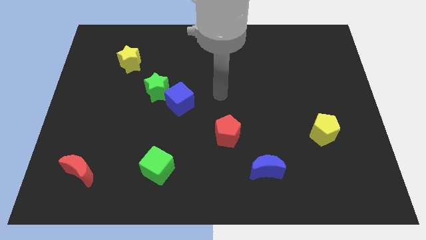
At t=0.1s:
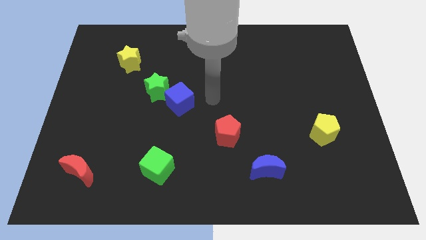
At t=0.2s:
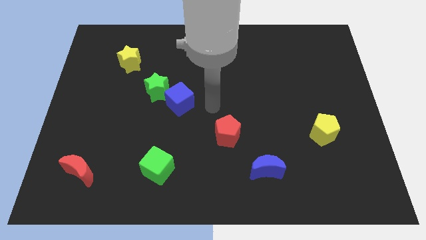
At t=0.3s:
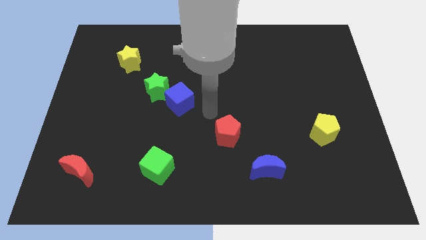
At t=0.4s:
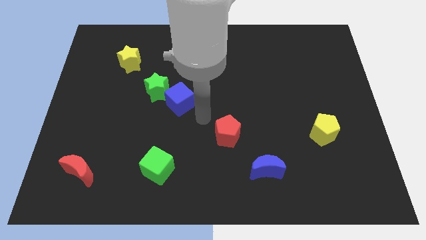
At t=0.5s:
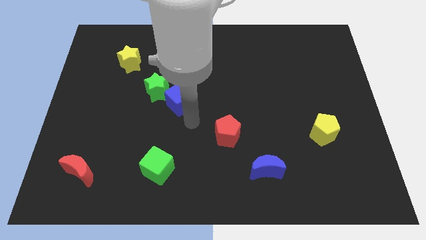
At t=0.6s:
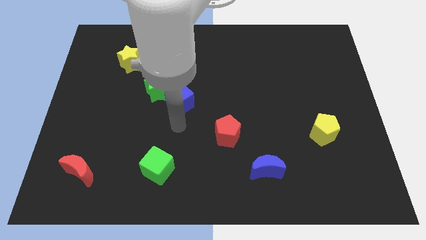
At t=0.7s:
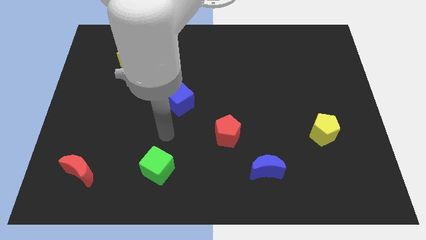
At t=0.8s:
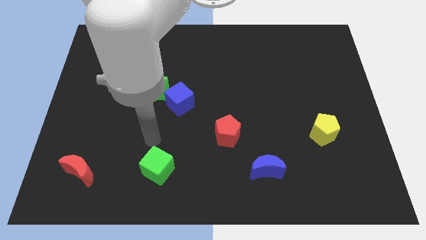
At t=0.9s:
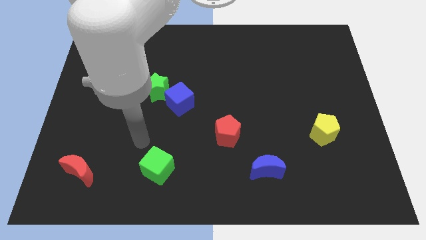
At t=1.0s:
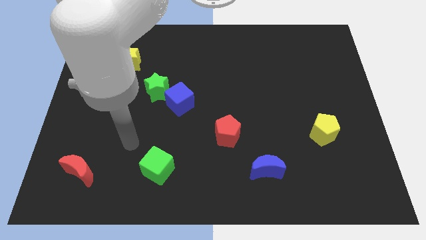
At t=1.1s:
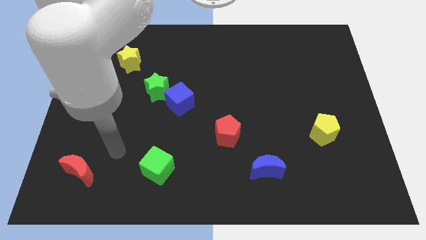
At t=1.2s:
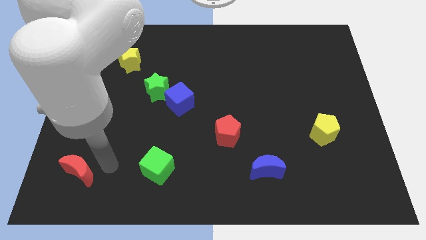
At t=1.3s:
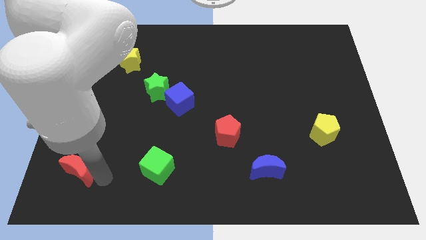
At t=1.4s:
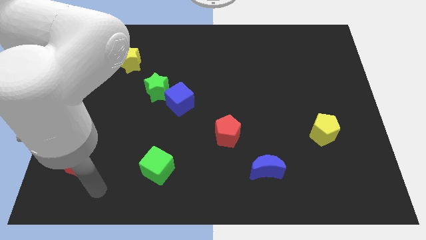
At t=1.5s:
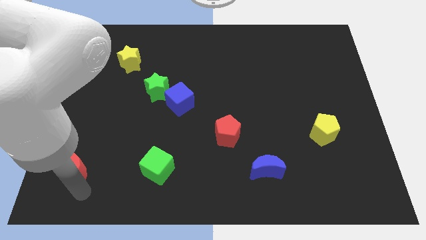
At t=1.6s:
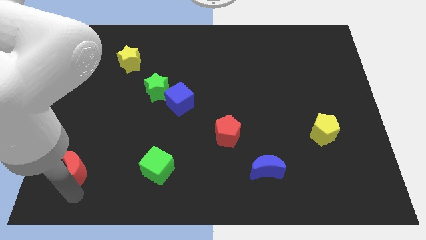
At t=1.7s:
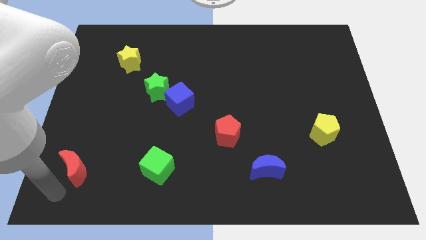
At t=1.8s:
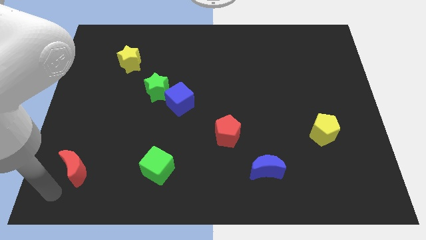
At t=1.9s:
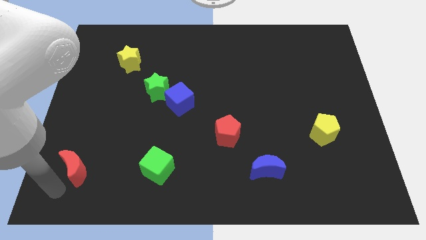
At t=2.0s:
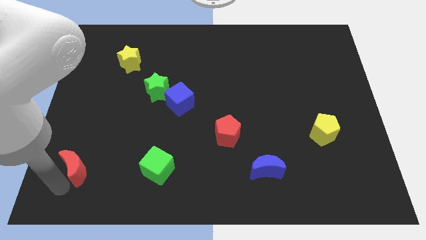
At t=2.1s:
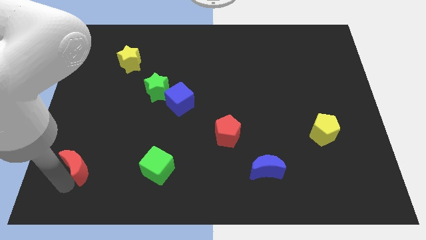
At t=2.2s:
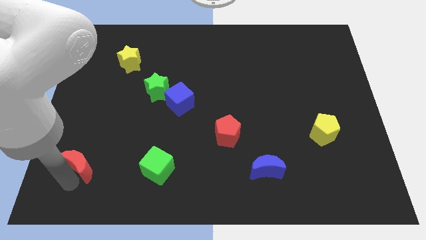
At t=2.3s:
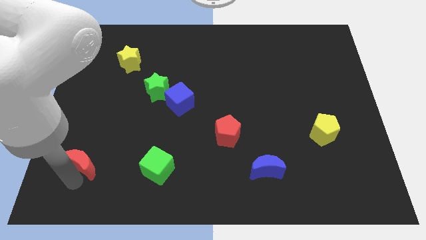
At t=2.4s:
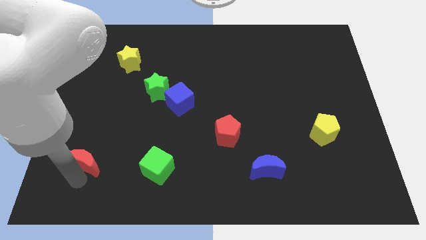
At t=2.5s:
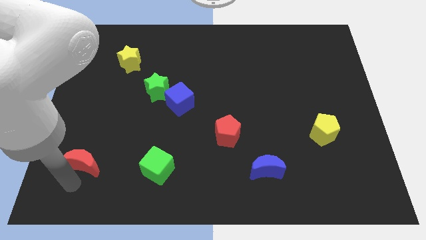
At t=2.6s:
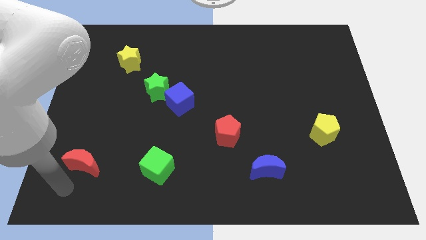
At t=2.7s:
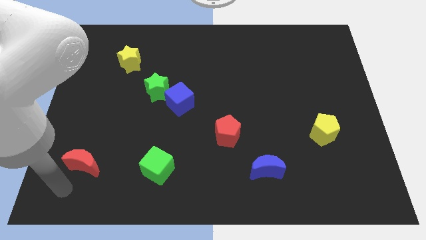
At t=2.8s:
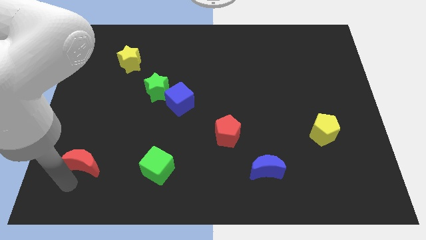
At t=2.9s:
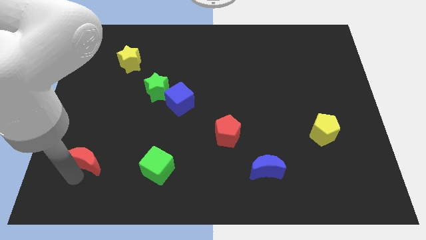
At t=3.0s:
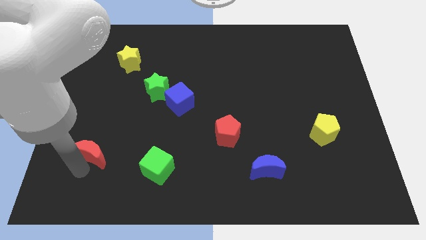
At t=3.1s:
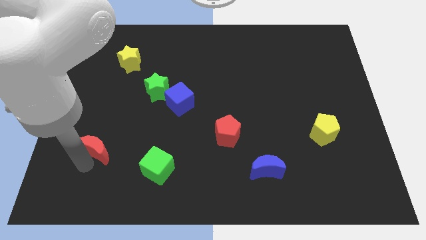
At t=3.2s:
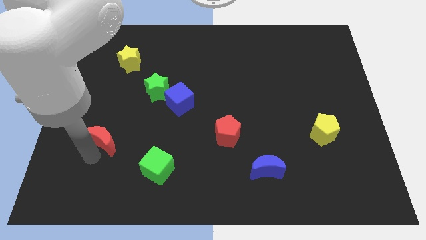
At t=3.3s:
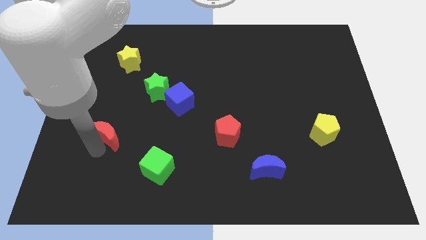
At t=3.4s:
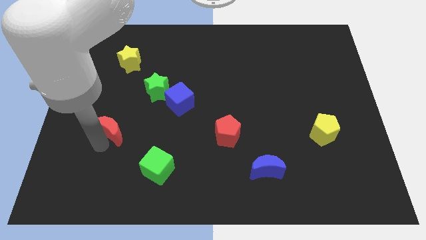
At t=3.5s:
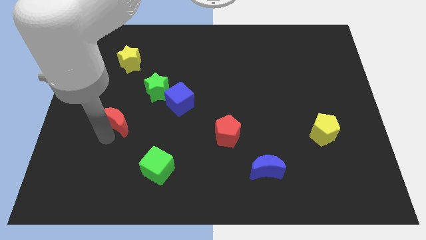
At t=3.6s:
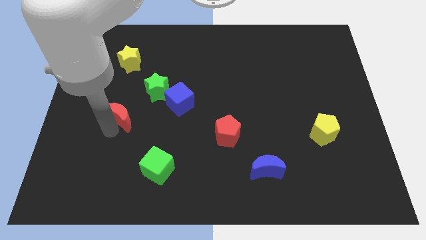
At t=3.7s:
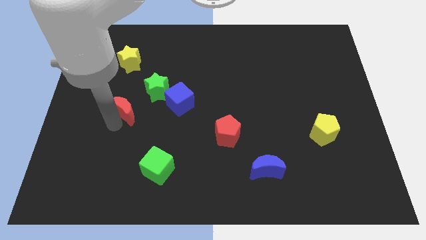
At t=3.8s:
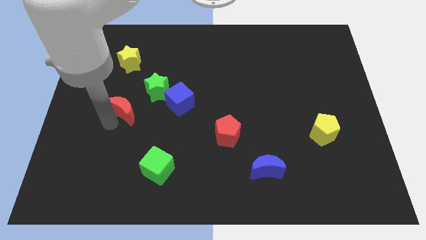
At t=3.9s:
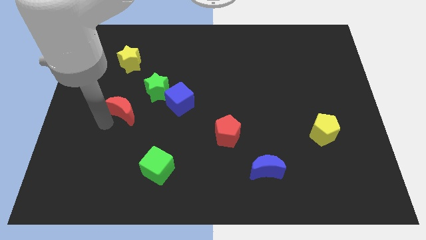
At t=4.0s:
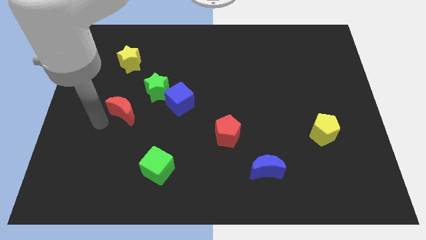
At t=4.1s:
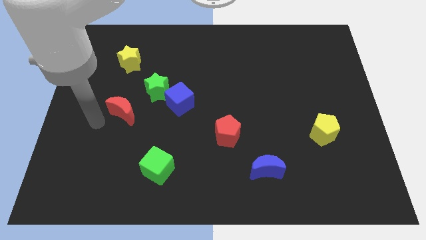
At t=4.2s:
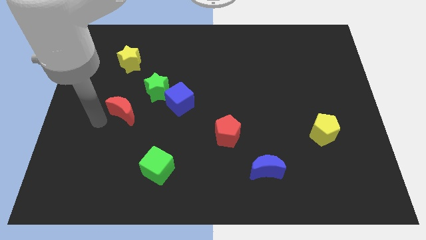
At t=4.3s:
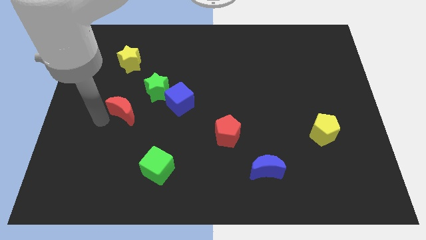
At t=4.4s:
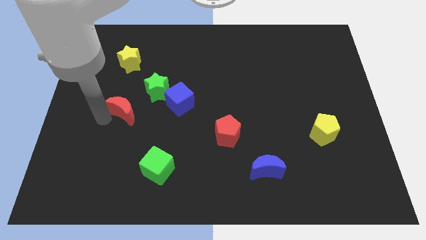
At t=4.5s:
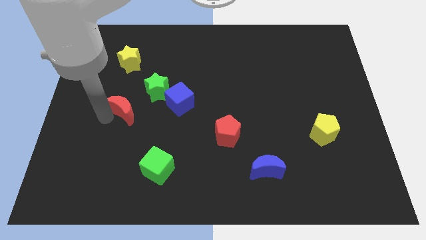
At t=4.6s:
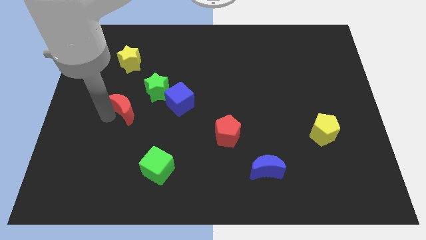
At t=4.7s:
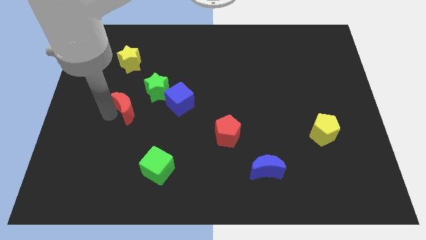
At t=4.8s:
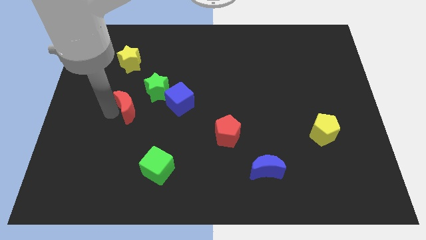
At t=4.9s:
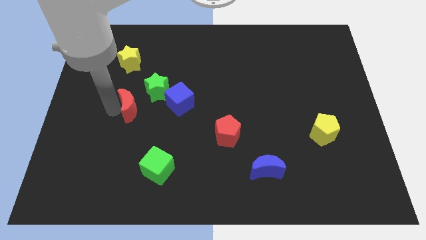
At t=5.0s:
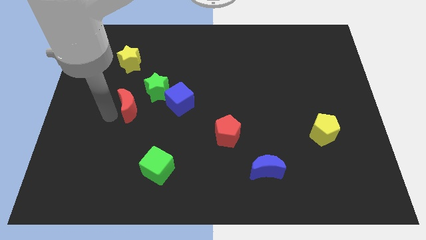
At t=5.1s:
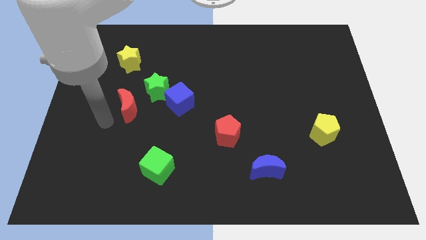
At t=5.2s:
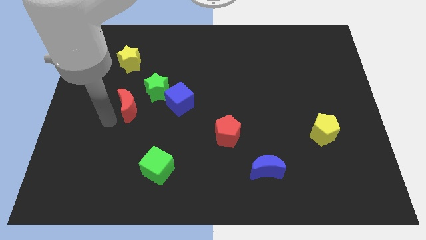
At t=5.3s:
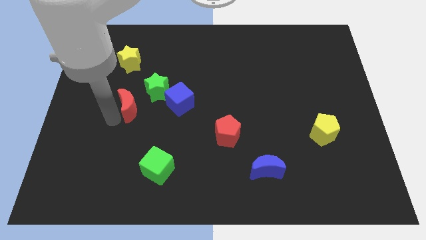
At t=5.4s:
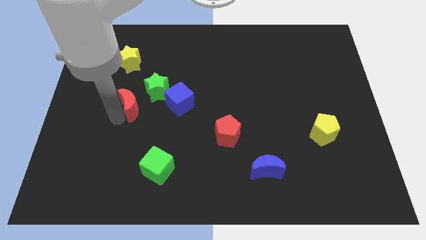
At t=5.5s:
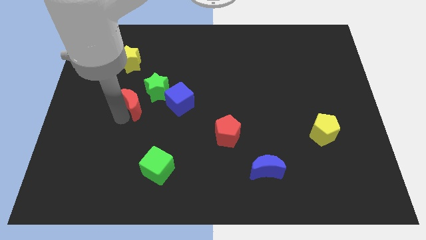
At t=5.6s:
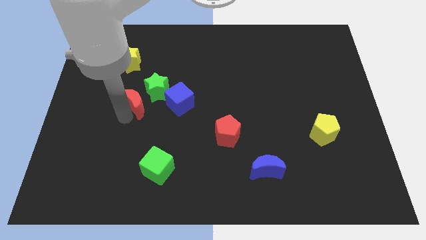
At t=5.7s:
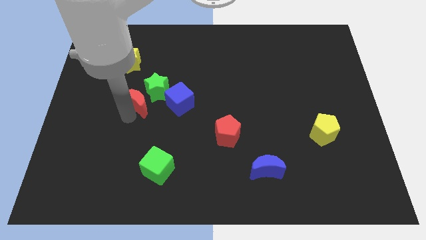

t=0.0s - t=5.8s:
move the red moon to the green star

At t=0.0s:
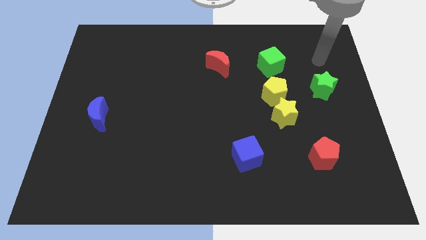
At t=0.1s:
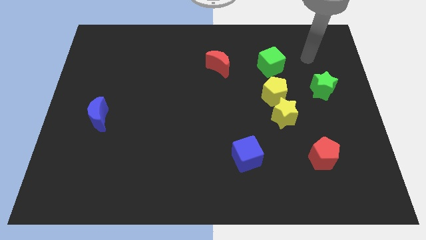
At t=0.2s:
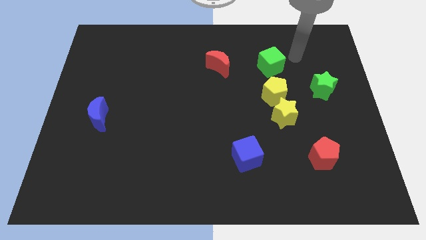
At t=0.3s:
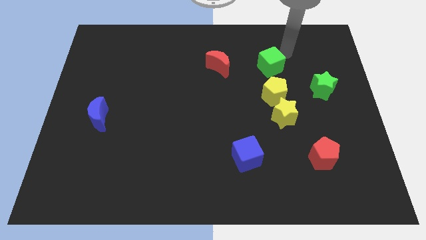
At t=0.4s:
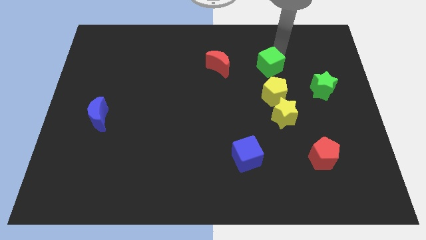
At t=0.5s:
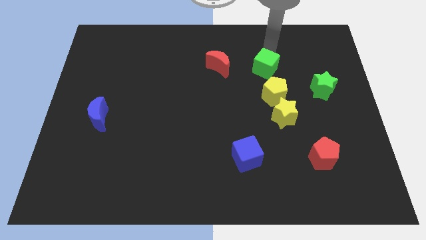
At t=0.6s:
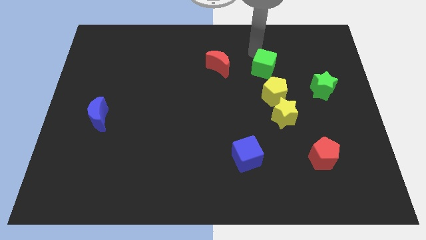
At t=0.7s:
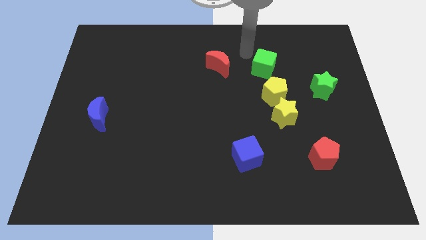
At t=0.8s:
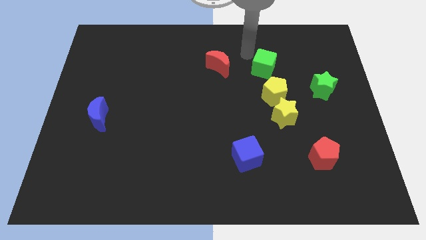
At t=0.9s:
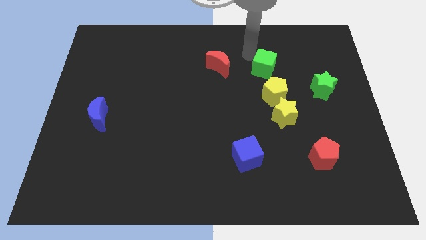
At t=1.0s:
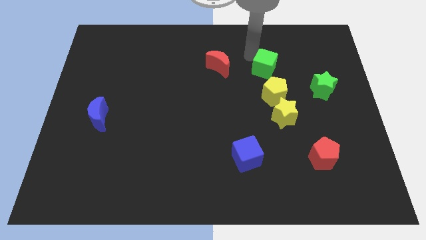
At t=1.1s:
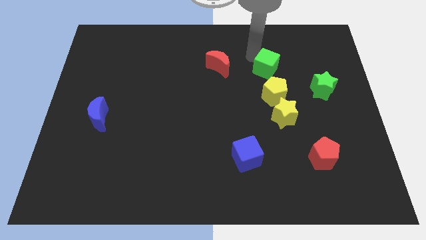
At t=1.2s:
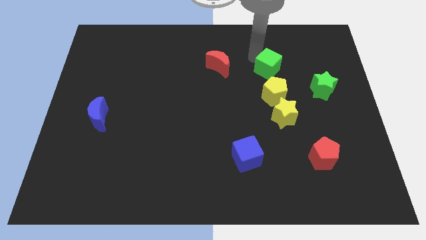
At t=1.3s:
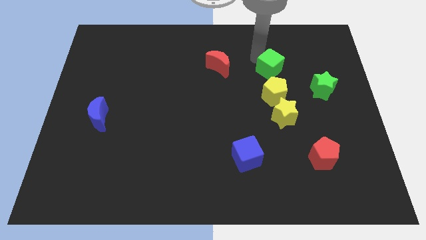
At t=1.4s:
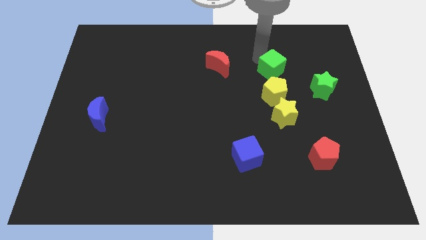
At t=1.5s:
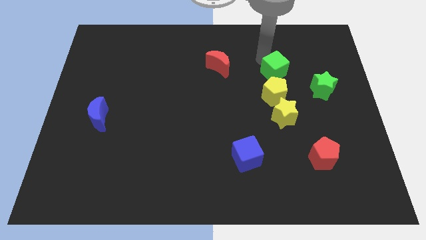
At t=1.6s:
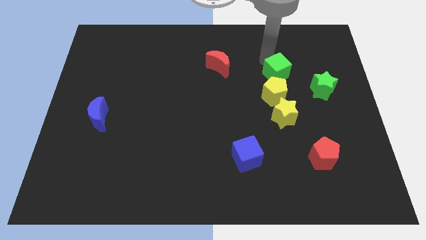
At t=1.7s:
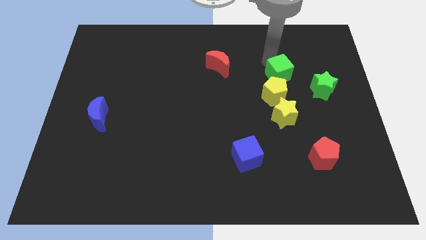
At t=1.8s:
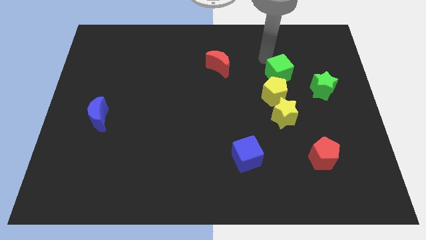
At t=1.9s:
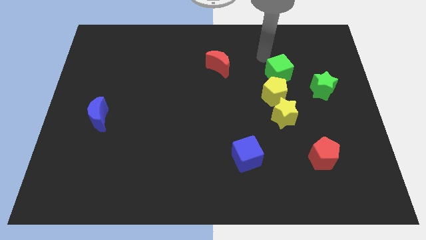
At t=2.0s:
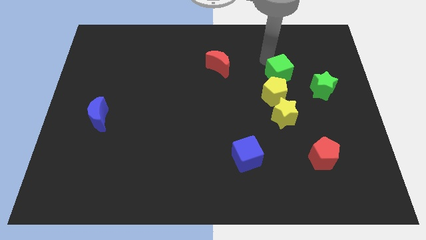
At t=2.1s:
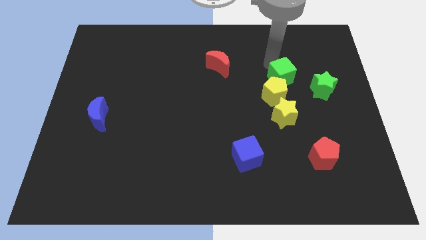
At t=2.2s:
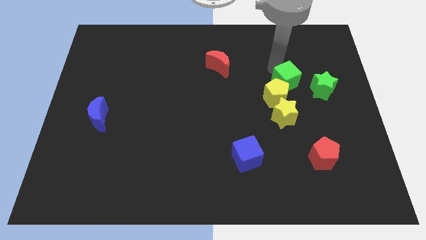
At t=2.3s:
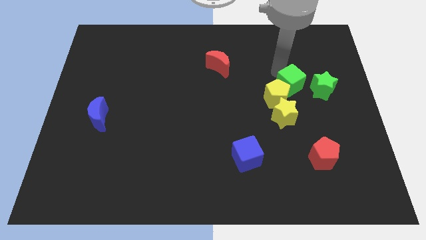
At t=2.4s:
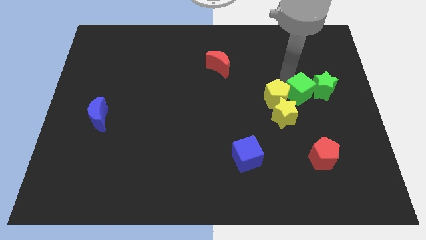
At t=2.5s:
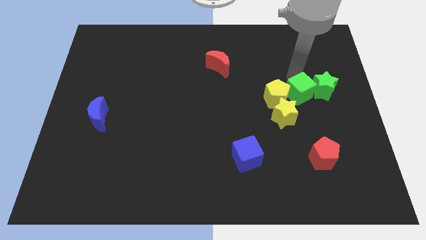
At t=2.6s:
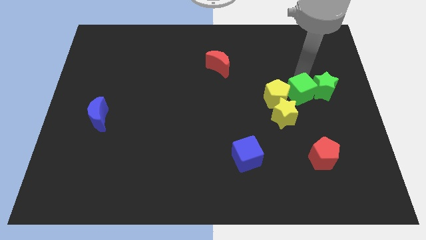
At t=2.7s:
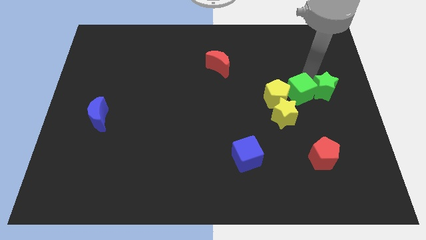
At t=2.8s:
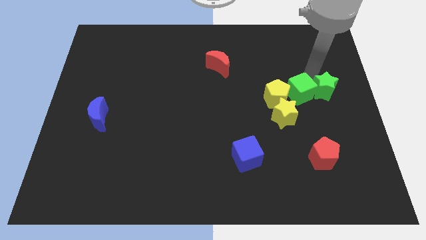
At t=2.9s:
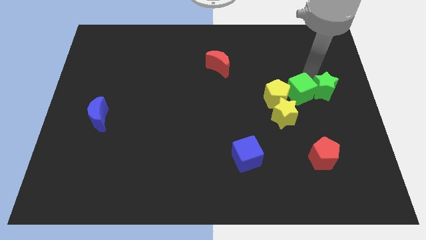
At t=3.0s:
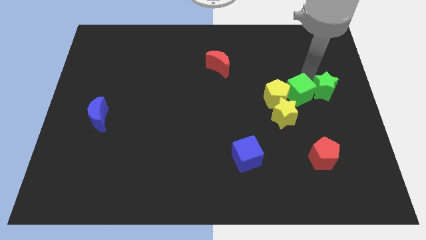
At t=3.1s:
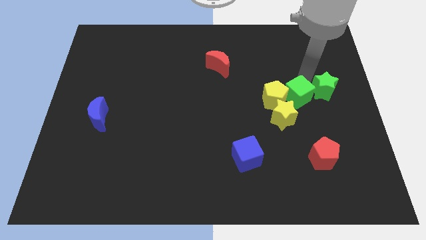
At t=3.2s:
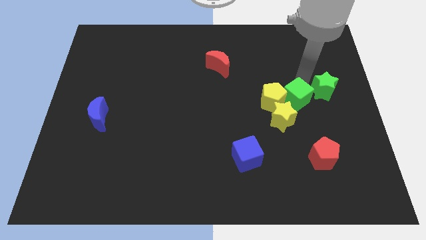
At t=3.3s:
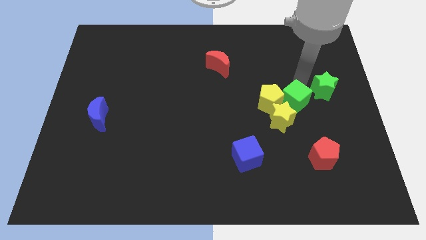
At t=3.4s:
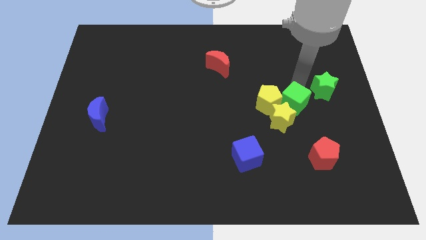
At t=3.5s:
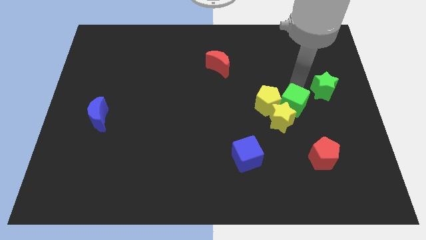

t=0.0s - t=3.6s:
put the green cube towards the yellow star
